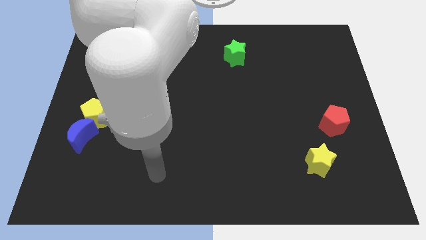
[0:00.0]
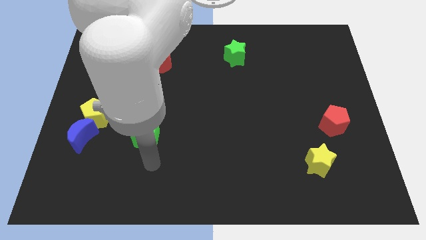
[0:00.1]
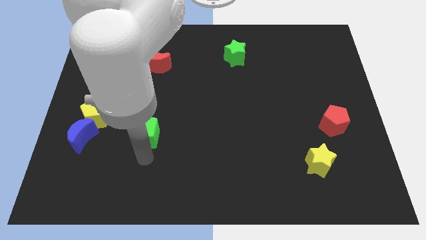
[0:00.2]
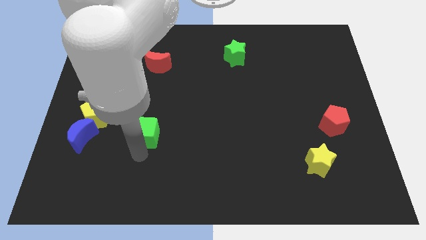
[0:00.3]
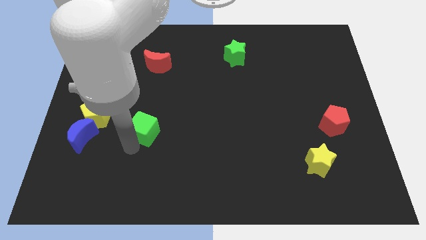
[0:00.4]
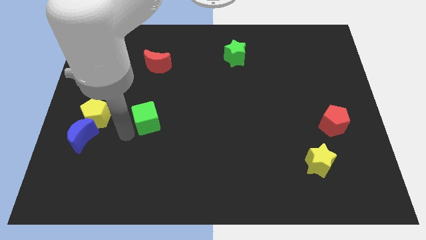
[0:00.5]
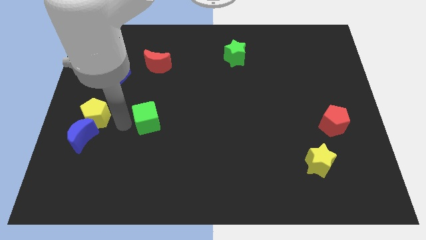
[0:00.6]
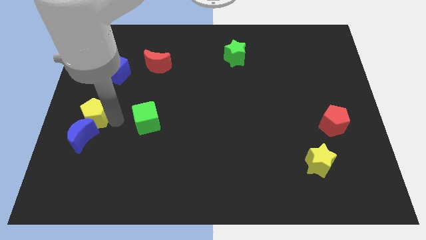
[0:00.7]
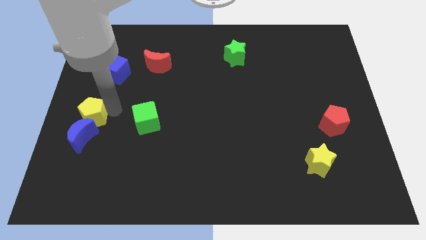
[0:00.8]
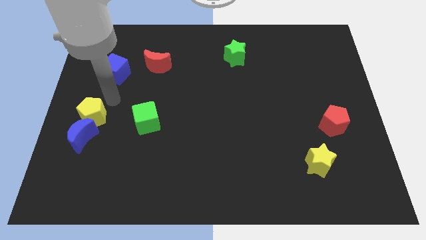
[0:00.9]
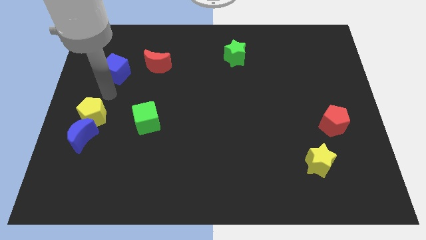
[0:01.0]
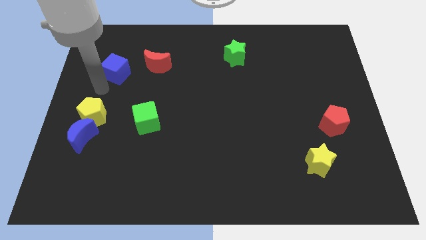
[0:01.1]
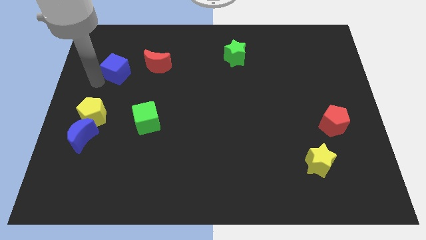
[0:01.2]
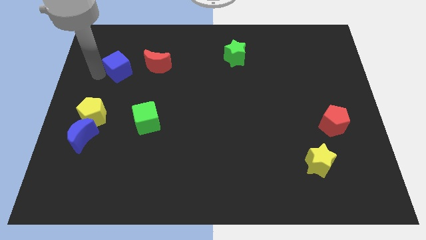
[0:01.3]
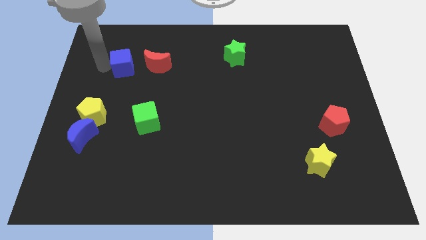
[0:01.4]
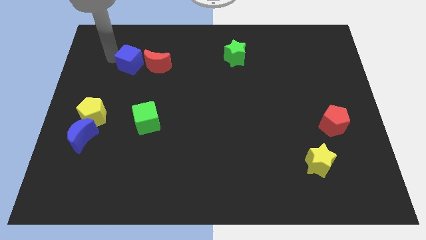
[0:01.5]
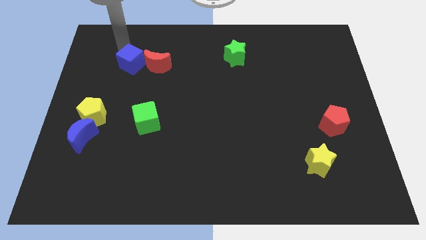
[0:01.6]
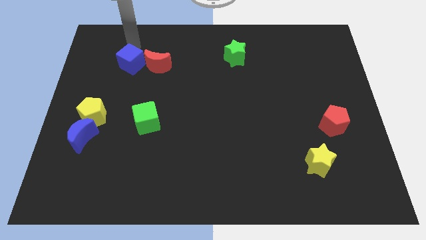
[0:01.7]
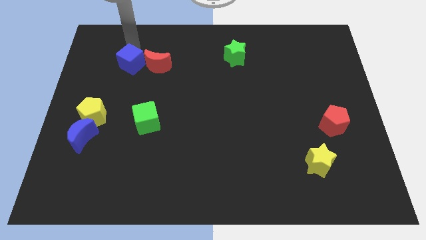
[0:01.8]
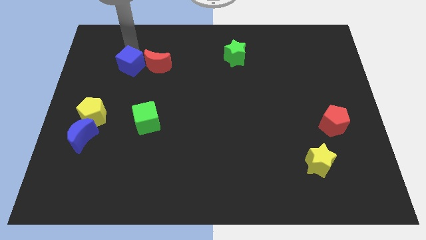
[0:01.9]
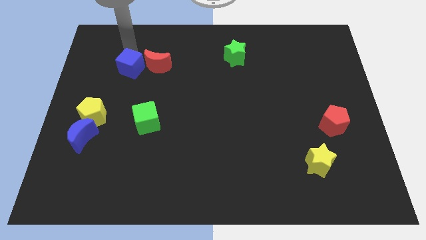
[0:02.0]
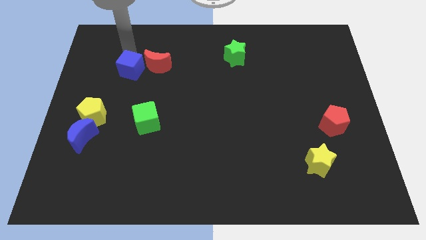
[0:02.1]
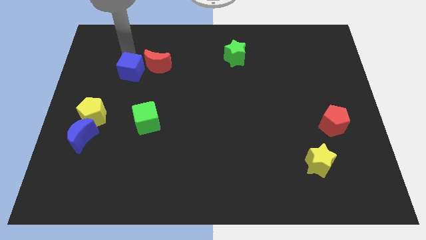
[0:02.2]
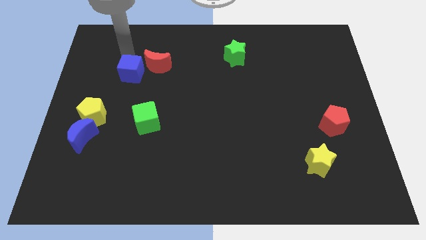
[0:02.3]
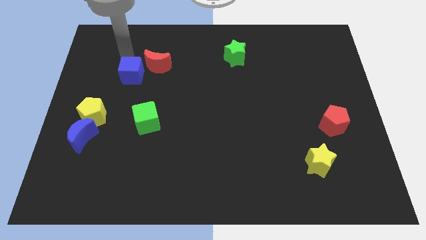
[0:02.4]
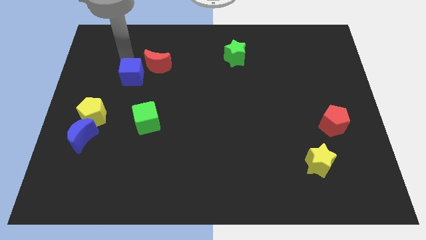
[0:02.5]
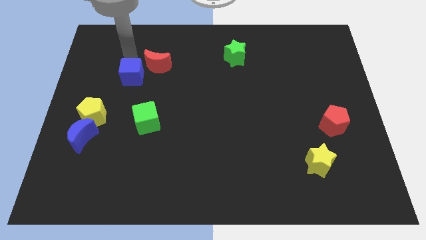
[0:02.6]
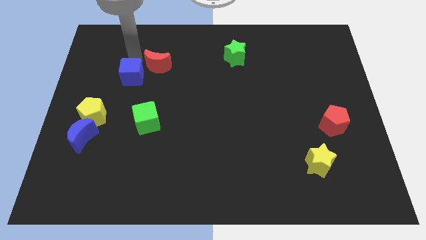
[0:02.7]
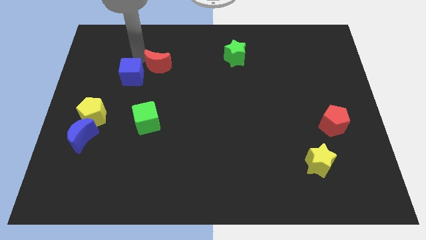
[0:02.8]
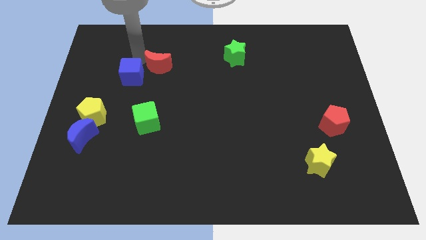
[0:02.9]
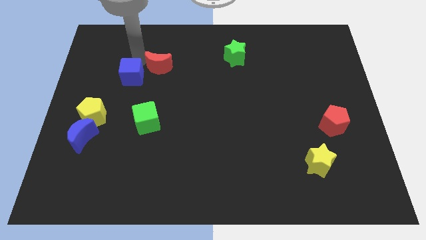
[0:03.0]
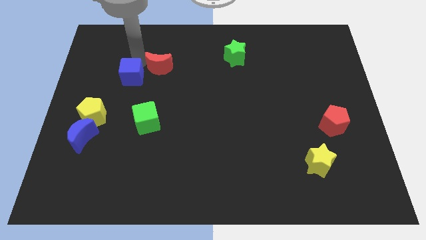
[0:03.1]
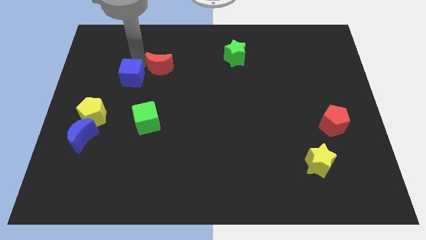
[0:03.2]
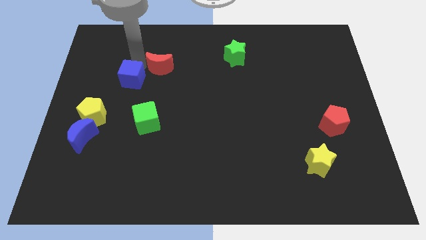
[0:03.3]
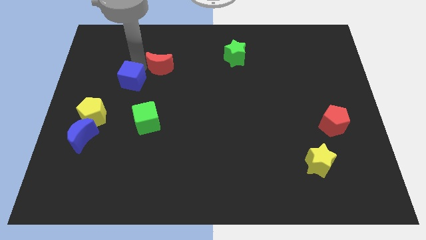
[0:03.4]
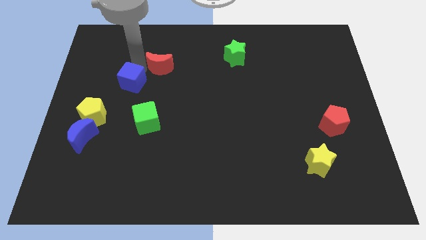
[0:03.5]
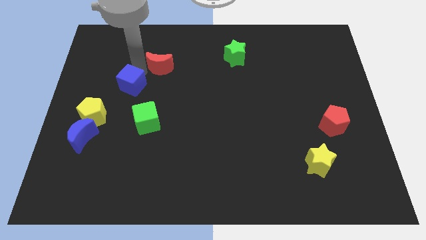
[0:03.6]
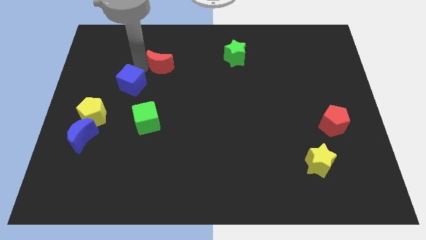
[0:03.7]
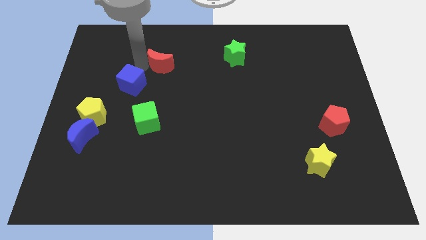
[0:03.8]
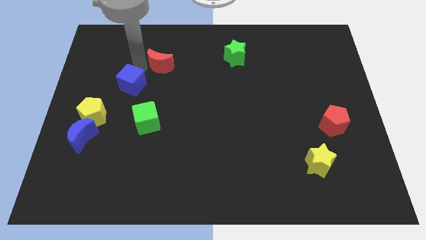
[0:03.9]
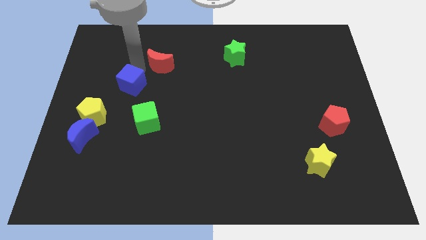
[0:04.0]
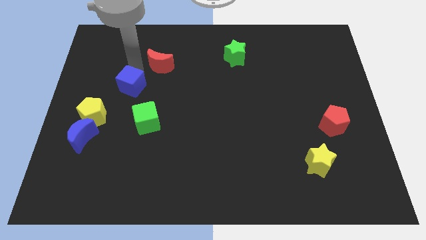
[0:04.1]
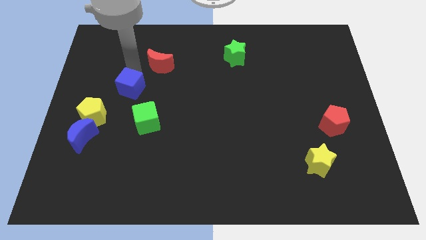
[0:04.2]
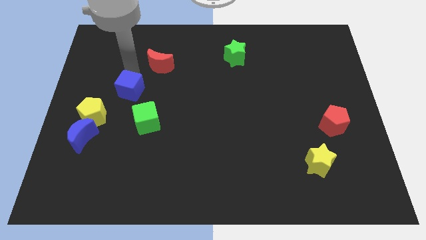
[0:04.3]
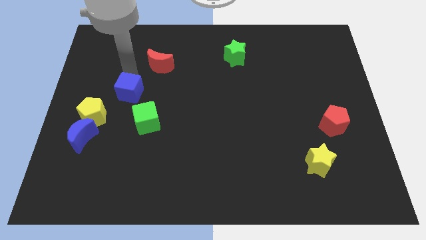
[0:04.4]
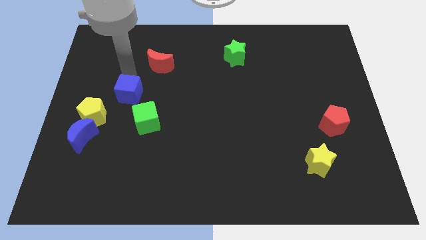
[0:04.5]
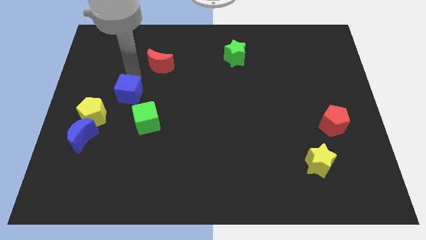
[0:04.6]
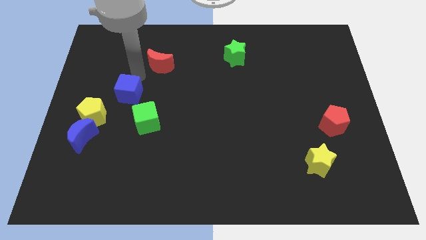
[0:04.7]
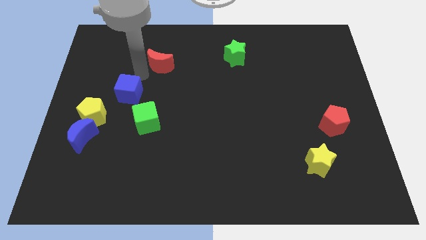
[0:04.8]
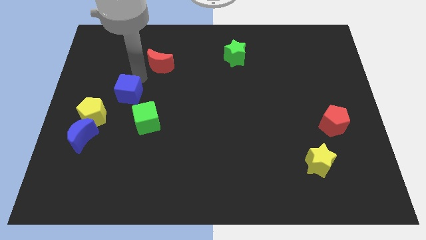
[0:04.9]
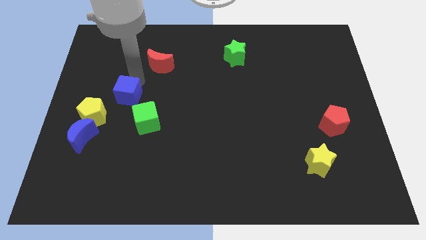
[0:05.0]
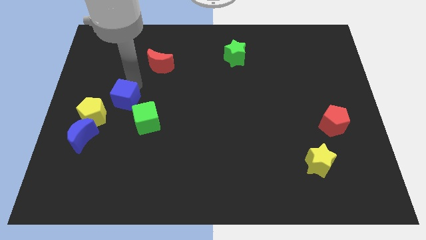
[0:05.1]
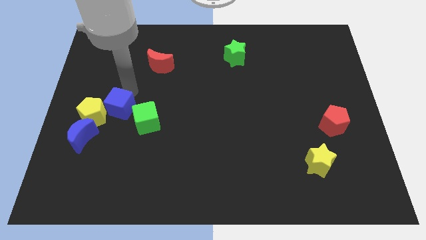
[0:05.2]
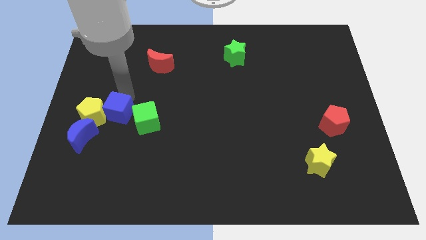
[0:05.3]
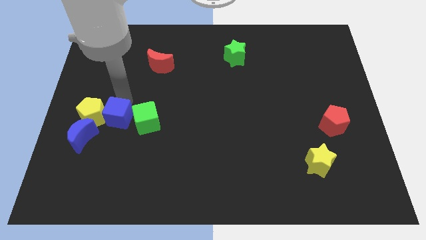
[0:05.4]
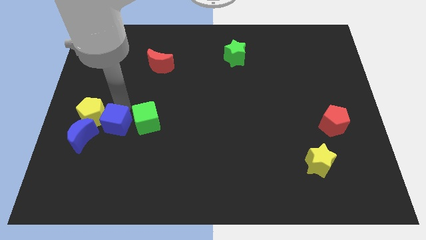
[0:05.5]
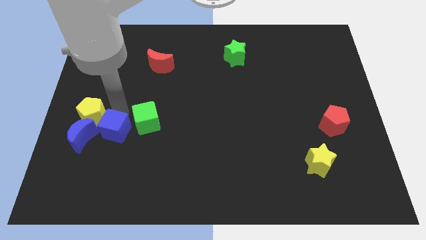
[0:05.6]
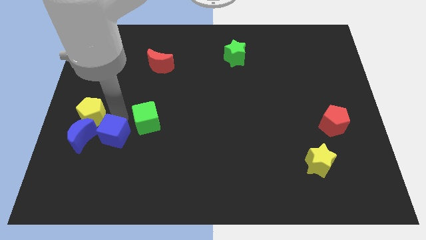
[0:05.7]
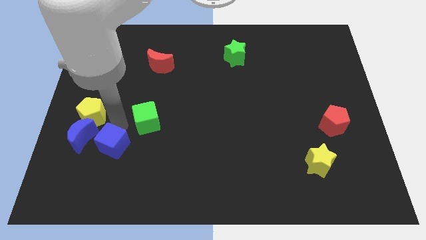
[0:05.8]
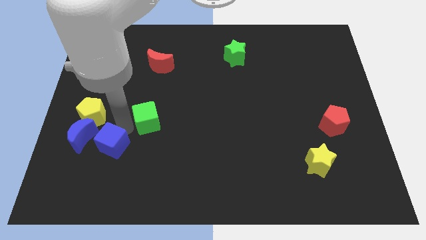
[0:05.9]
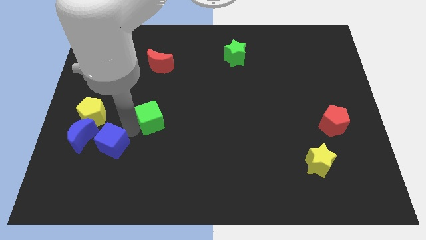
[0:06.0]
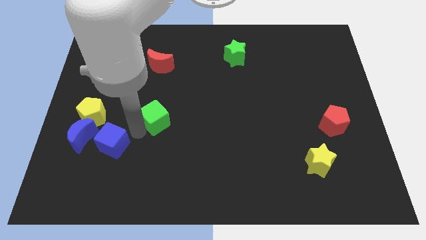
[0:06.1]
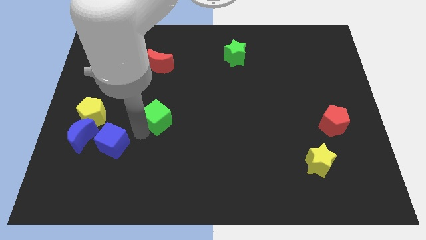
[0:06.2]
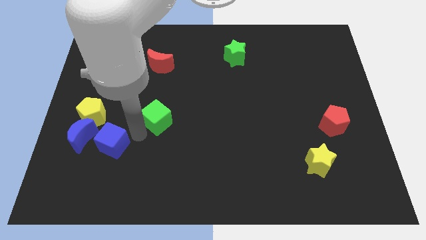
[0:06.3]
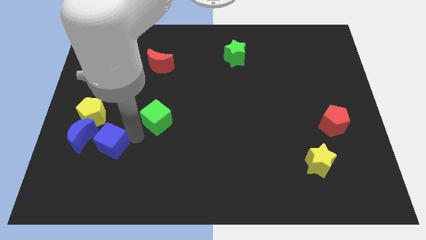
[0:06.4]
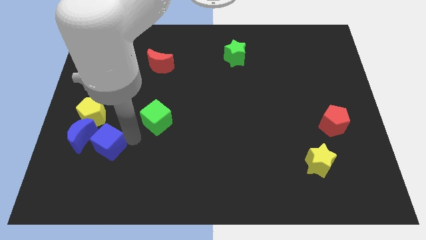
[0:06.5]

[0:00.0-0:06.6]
push the blue cube to the bottom side of the yellow pentagon
